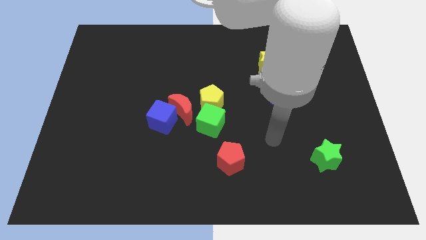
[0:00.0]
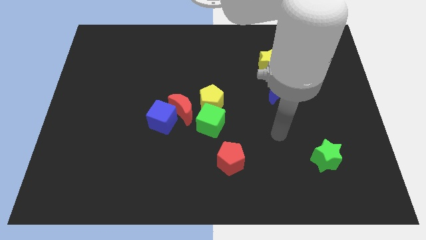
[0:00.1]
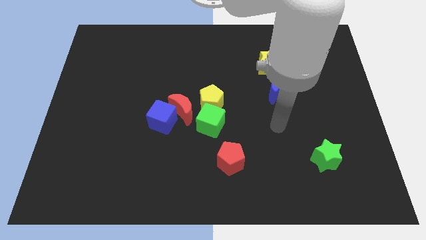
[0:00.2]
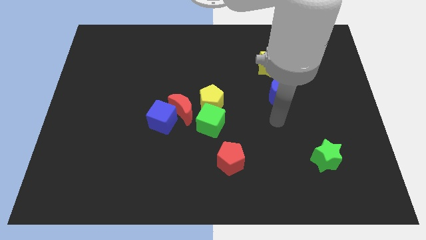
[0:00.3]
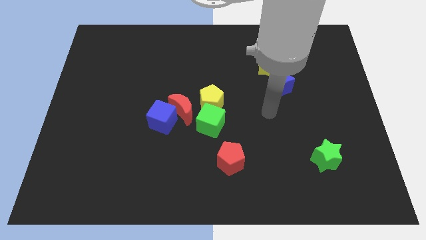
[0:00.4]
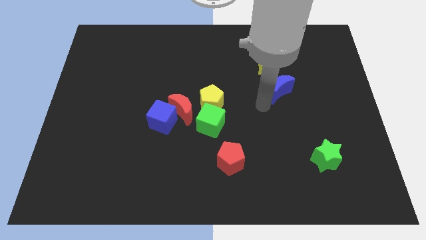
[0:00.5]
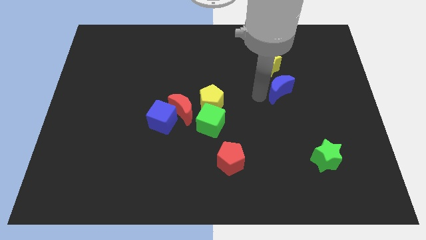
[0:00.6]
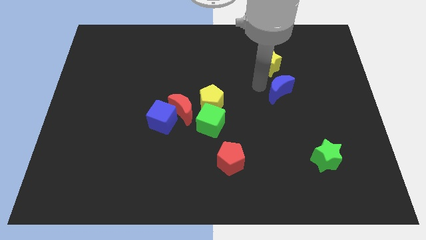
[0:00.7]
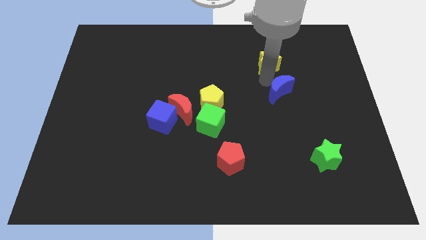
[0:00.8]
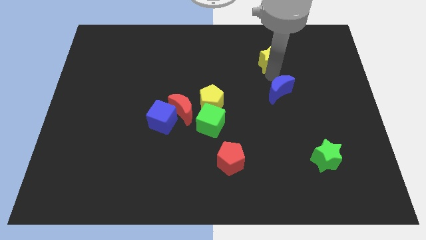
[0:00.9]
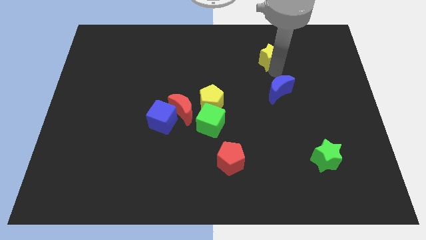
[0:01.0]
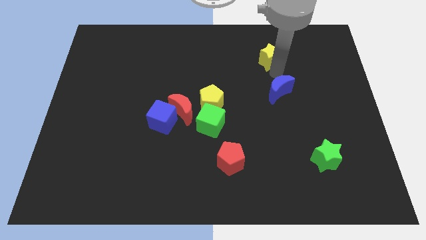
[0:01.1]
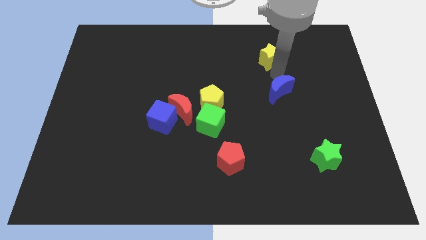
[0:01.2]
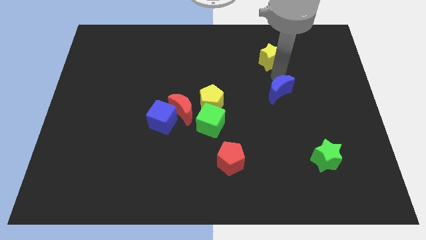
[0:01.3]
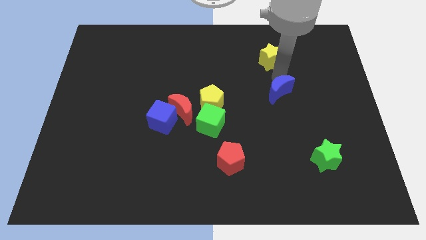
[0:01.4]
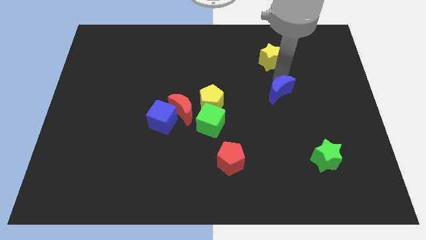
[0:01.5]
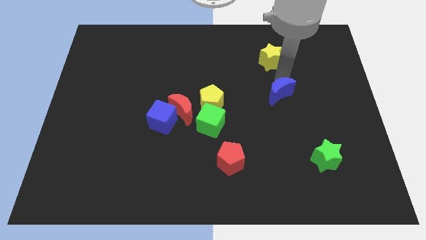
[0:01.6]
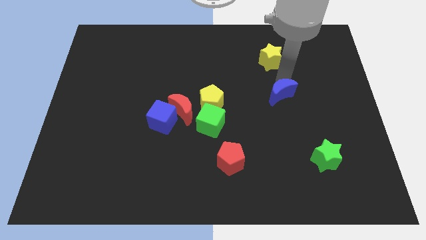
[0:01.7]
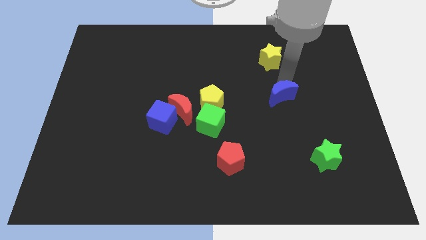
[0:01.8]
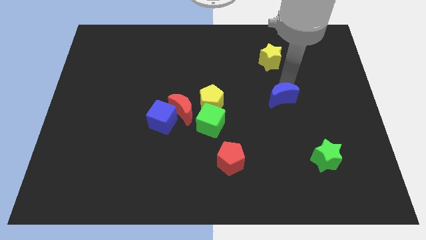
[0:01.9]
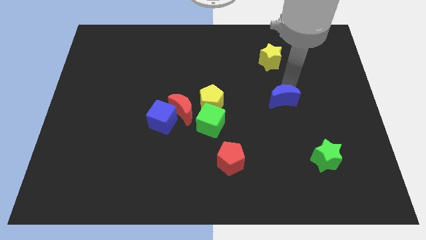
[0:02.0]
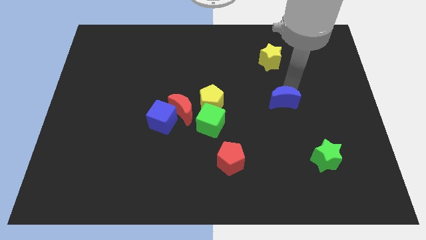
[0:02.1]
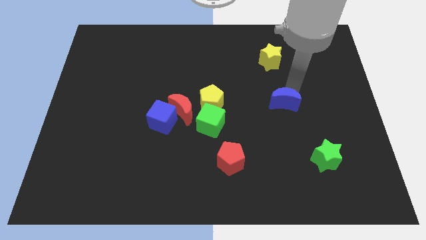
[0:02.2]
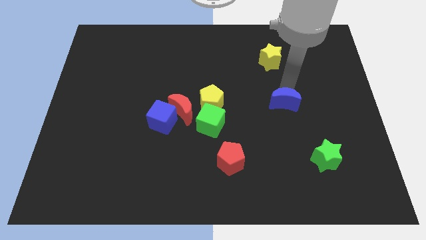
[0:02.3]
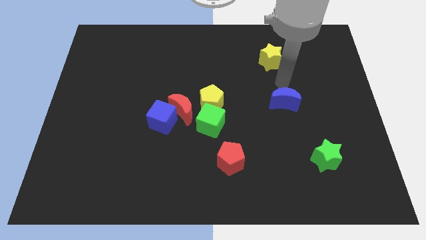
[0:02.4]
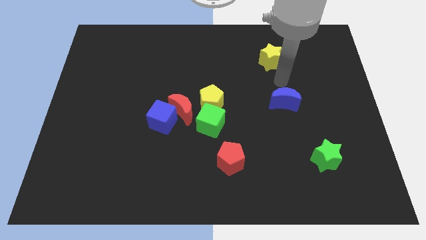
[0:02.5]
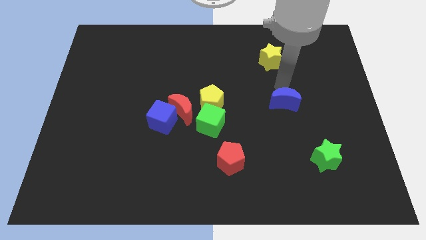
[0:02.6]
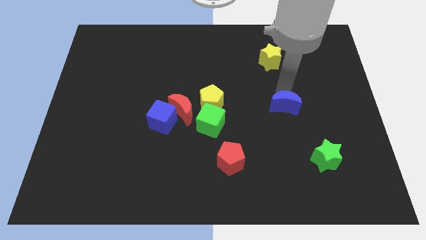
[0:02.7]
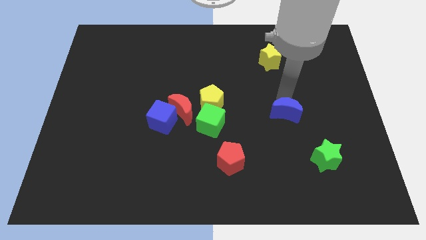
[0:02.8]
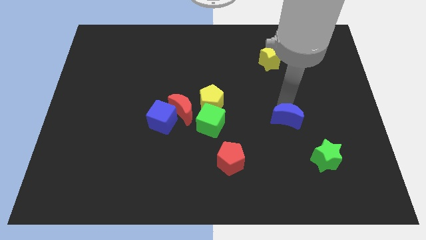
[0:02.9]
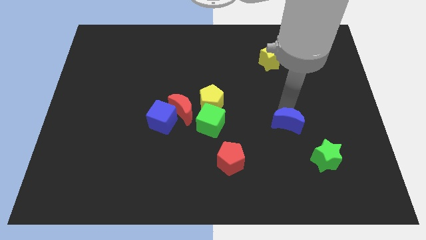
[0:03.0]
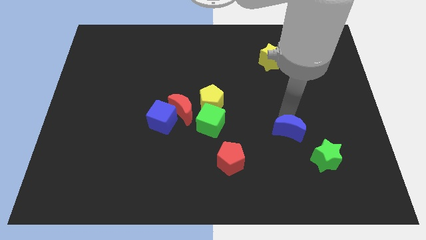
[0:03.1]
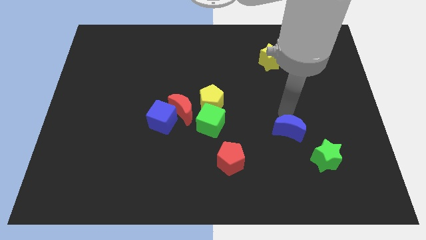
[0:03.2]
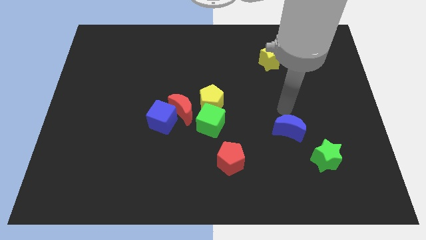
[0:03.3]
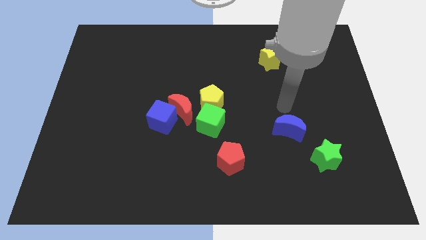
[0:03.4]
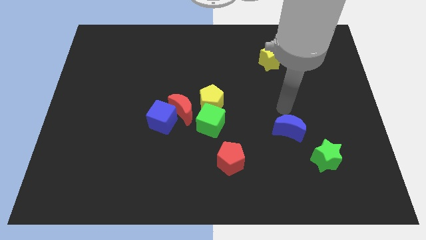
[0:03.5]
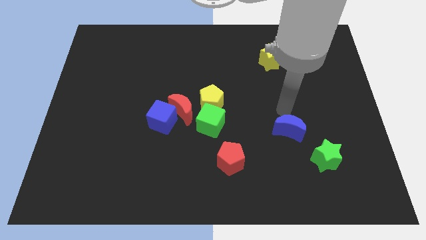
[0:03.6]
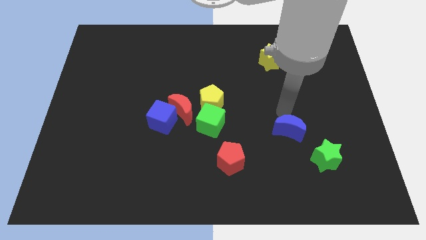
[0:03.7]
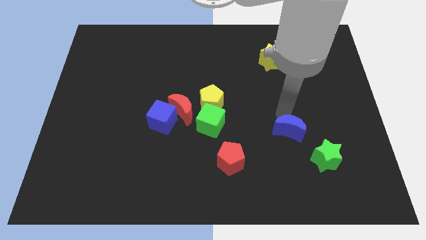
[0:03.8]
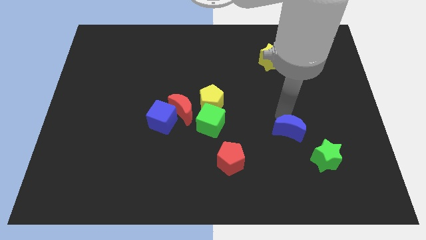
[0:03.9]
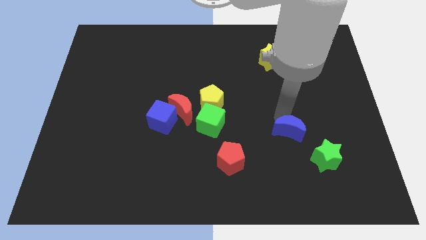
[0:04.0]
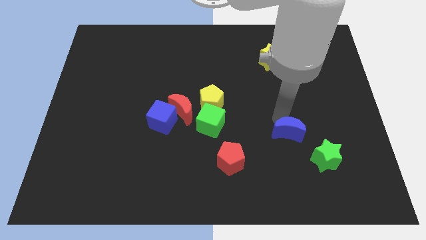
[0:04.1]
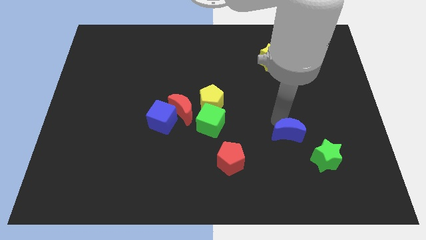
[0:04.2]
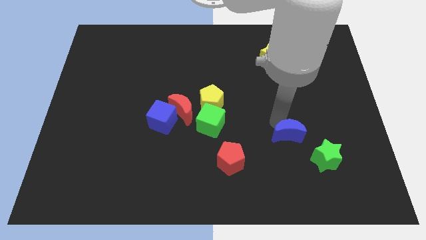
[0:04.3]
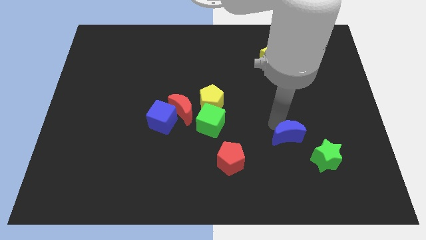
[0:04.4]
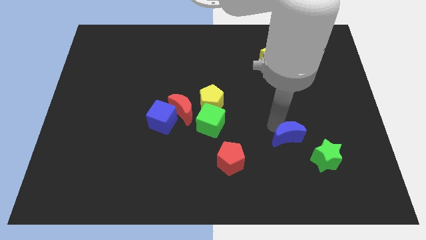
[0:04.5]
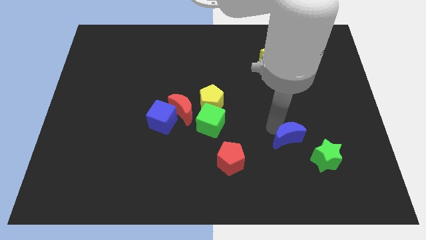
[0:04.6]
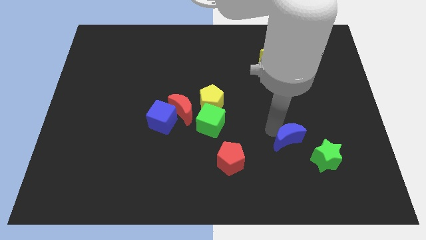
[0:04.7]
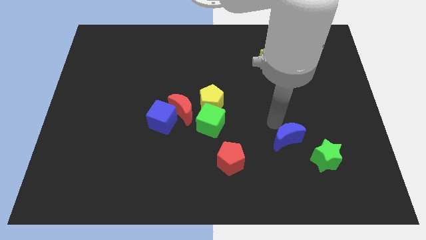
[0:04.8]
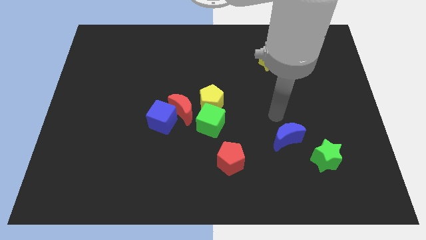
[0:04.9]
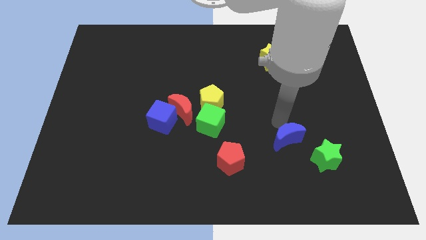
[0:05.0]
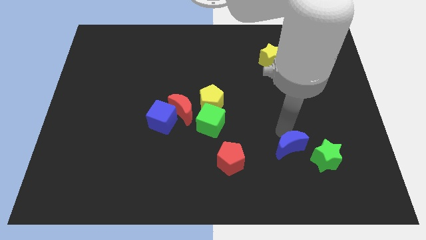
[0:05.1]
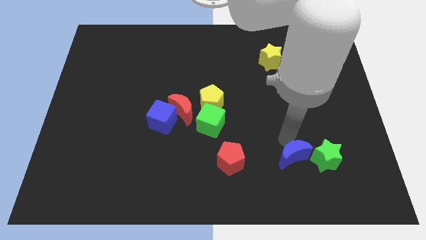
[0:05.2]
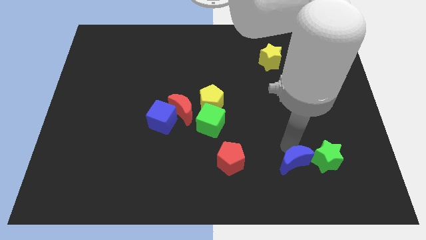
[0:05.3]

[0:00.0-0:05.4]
put the blue moon to the bottom left of the green star

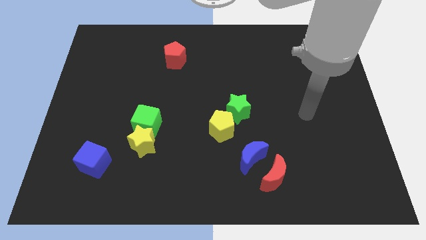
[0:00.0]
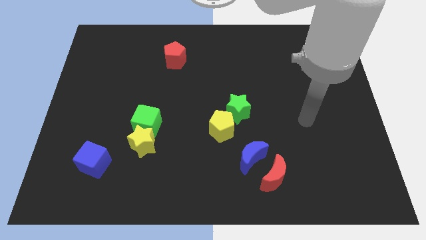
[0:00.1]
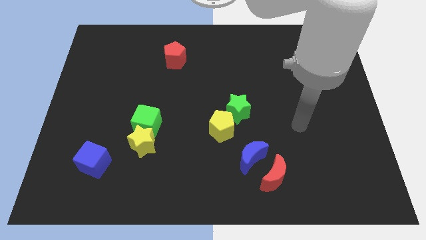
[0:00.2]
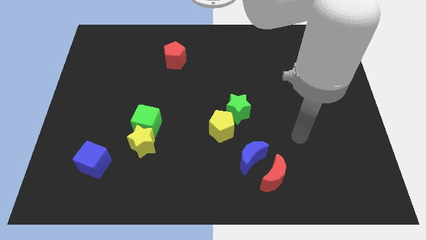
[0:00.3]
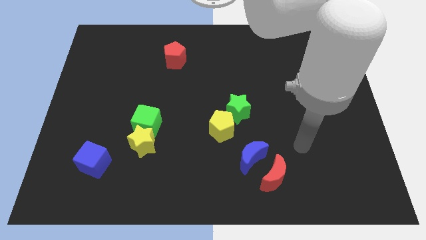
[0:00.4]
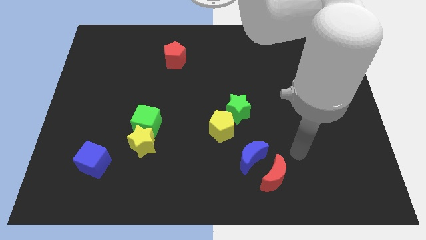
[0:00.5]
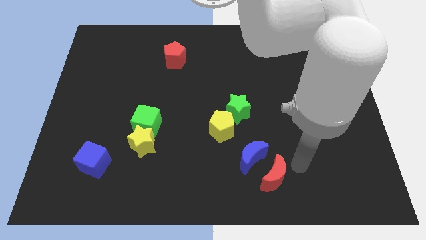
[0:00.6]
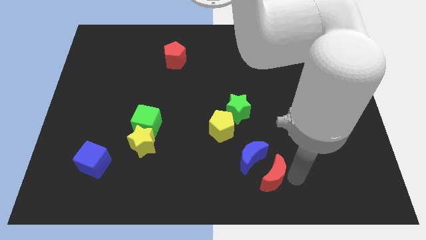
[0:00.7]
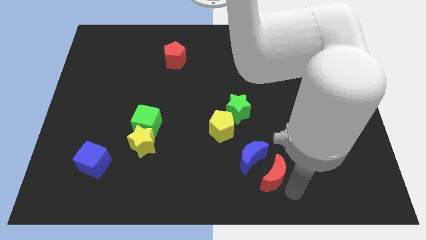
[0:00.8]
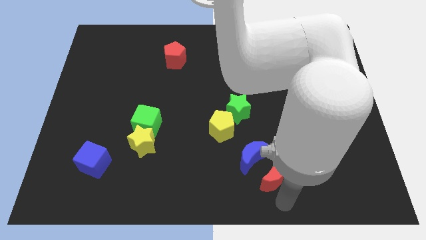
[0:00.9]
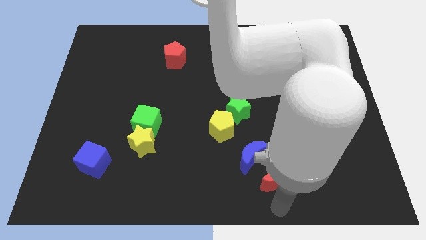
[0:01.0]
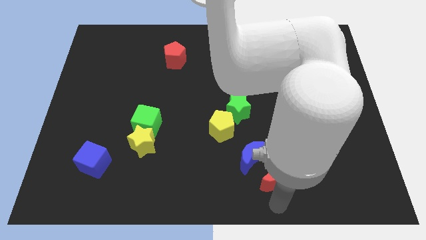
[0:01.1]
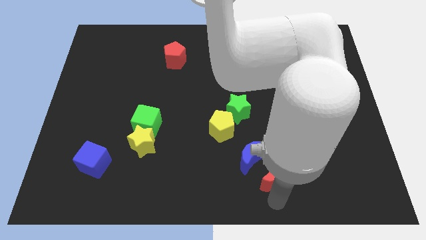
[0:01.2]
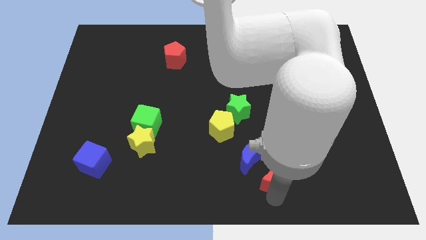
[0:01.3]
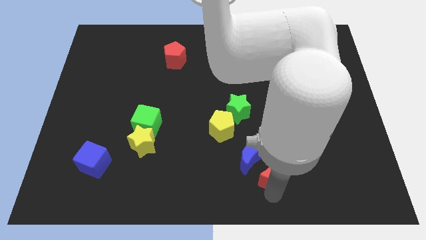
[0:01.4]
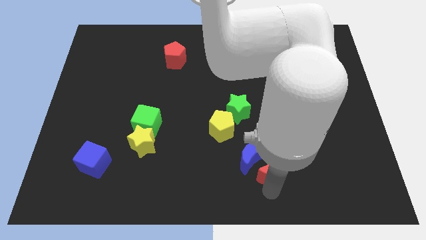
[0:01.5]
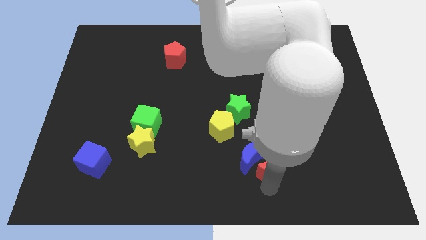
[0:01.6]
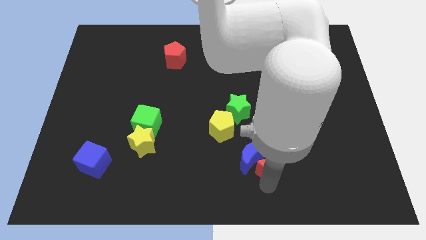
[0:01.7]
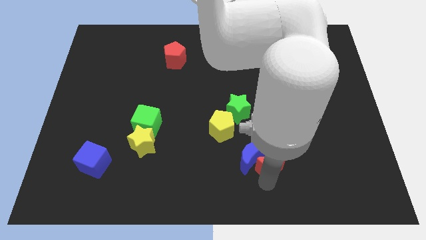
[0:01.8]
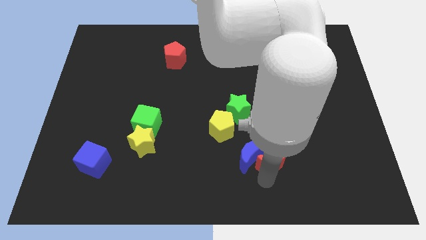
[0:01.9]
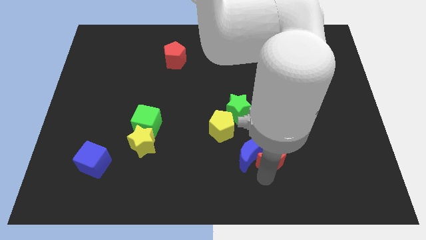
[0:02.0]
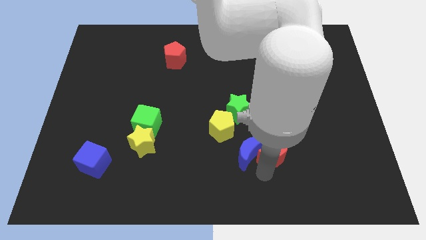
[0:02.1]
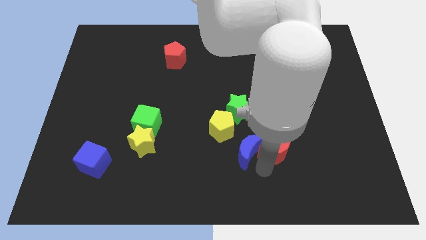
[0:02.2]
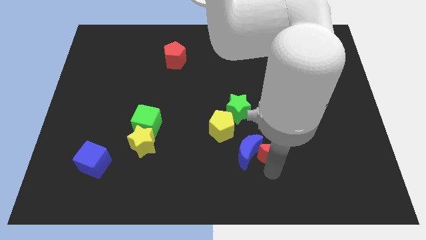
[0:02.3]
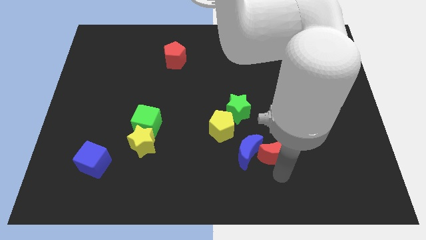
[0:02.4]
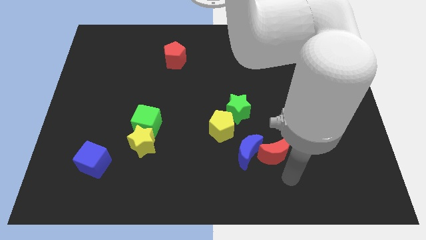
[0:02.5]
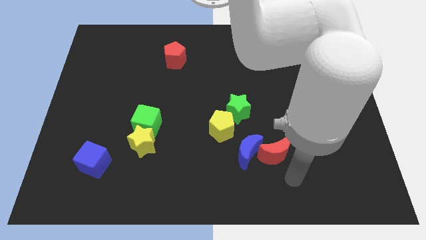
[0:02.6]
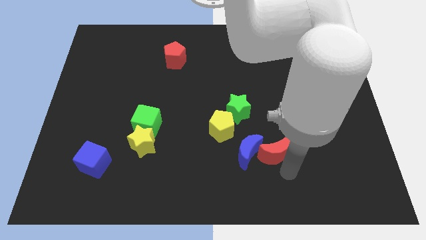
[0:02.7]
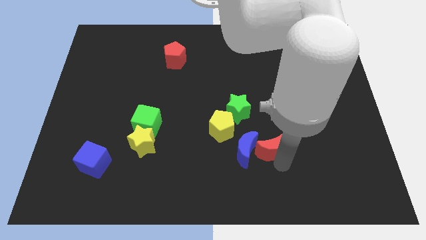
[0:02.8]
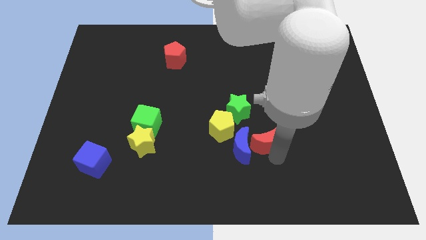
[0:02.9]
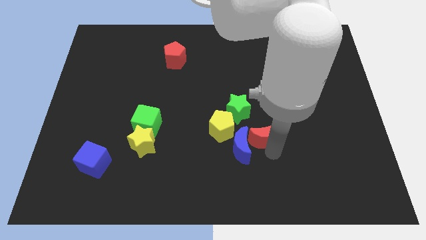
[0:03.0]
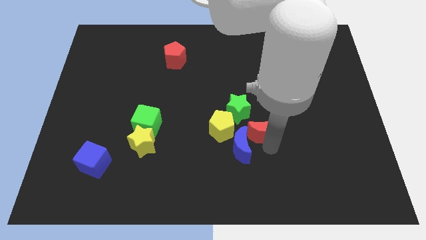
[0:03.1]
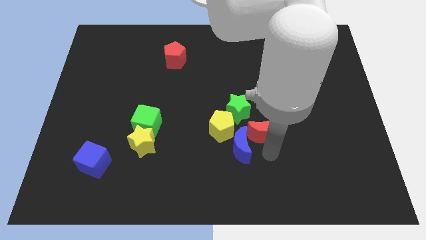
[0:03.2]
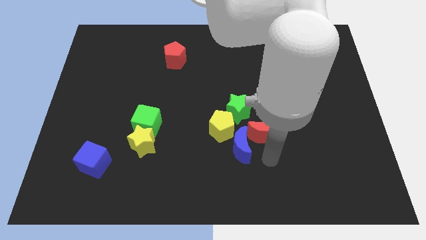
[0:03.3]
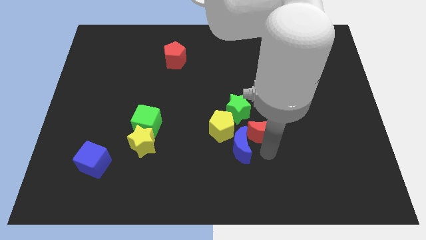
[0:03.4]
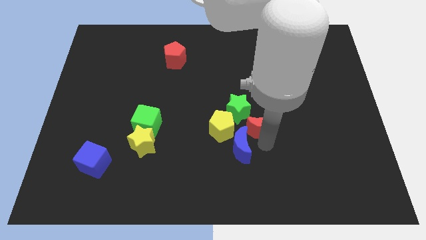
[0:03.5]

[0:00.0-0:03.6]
put the red moon to the top side of the blue moon
